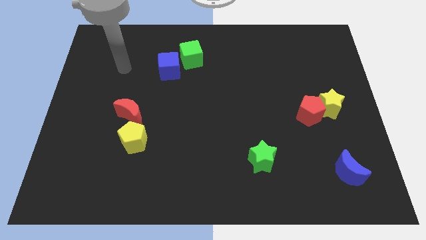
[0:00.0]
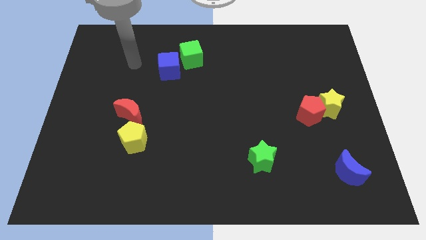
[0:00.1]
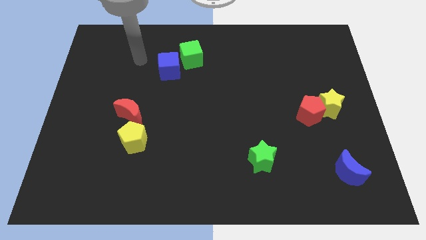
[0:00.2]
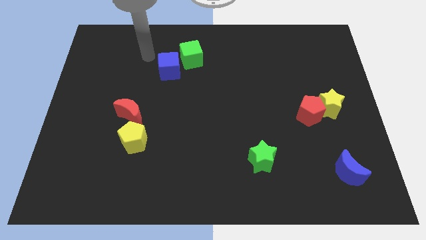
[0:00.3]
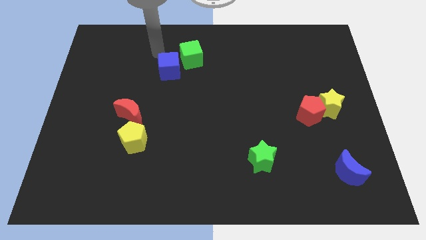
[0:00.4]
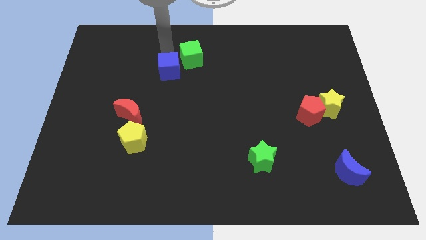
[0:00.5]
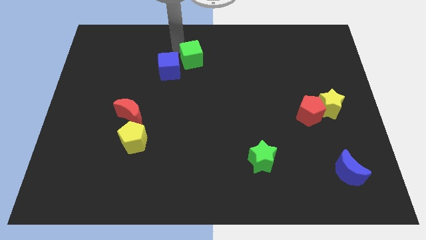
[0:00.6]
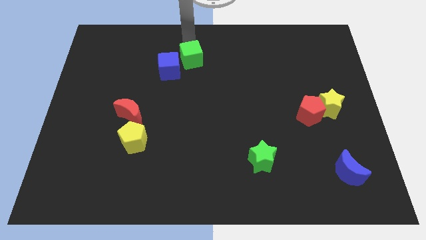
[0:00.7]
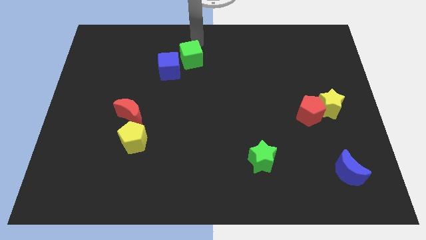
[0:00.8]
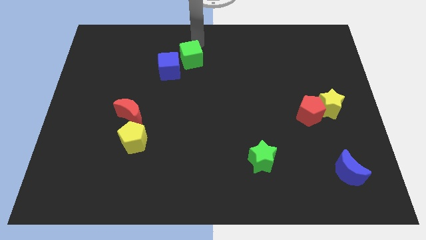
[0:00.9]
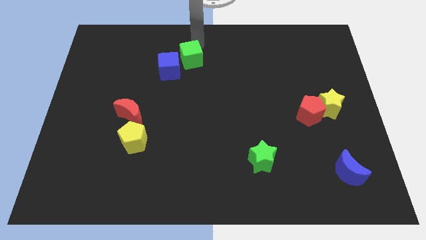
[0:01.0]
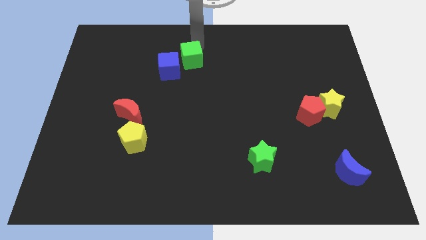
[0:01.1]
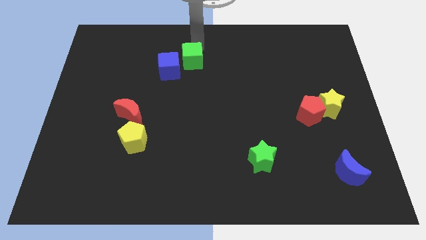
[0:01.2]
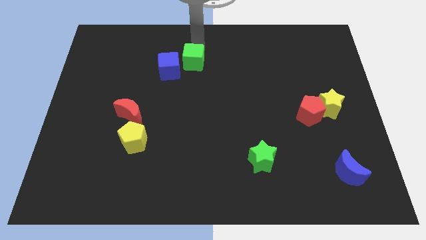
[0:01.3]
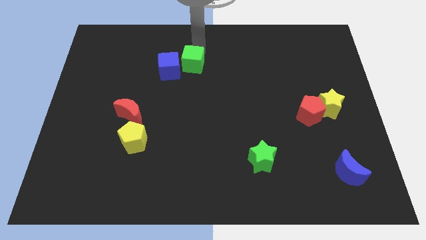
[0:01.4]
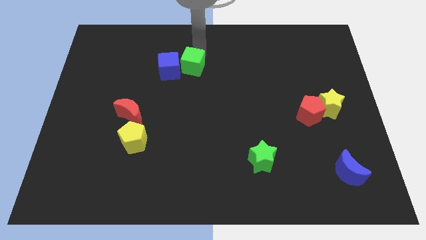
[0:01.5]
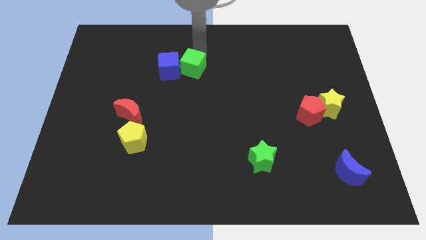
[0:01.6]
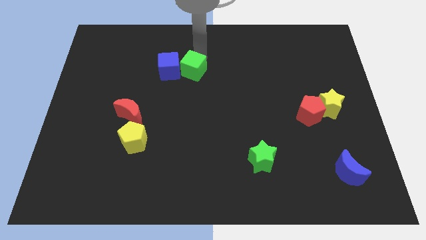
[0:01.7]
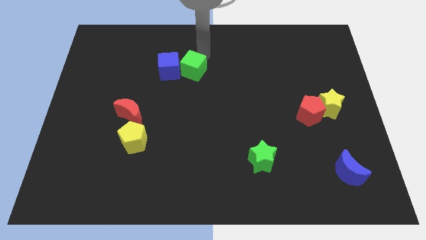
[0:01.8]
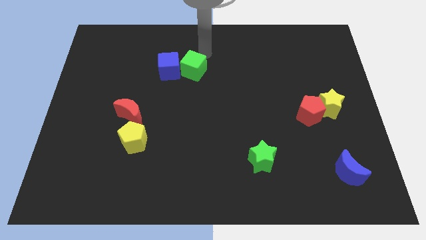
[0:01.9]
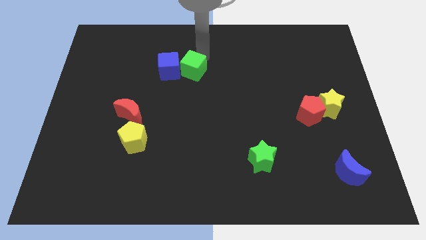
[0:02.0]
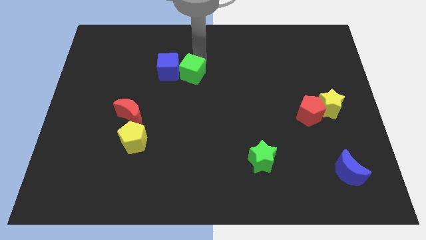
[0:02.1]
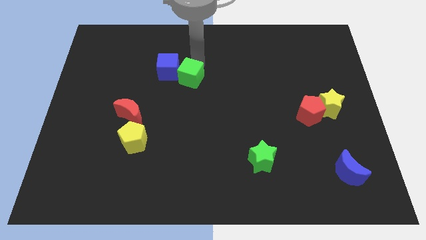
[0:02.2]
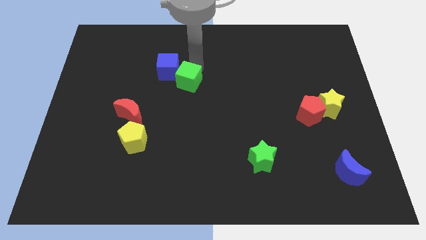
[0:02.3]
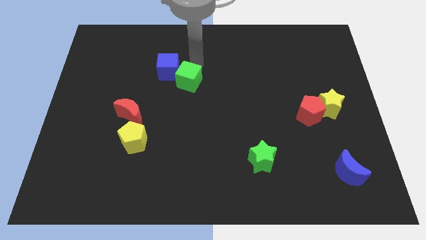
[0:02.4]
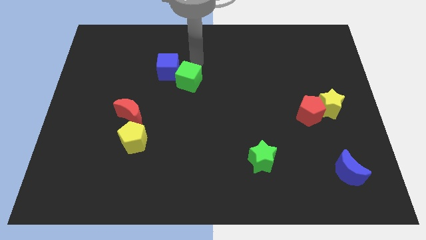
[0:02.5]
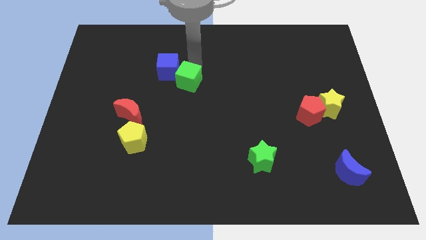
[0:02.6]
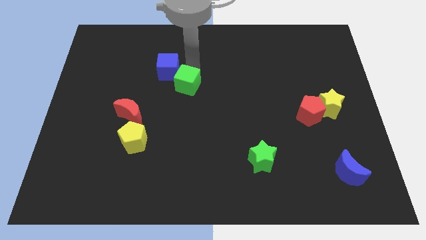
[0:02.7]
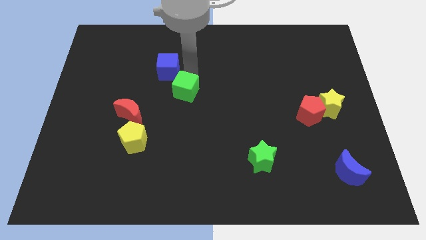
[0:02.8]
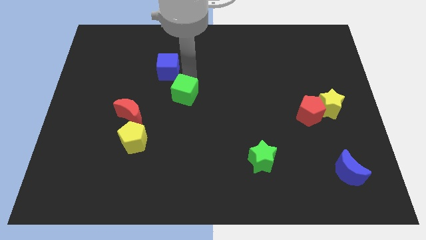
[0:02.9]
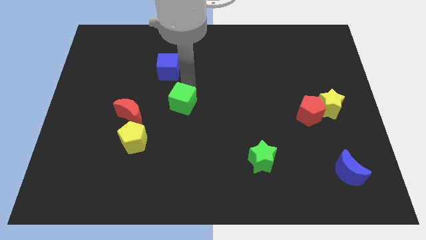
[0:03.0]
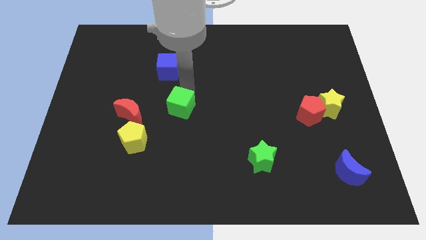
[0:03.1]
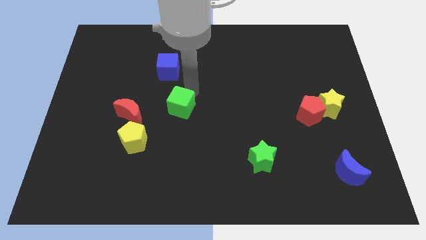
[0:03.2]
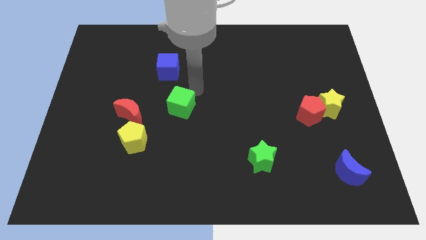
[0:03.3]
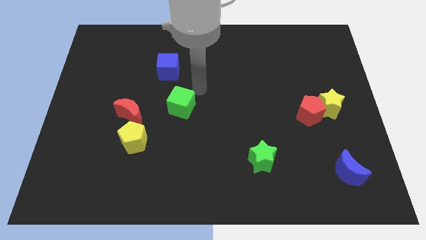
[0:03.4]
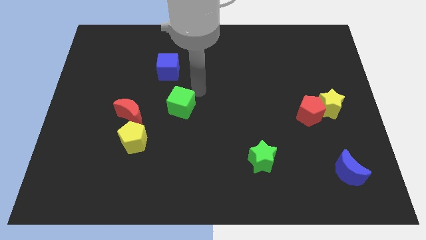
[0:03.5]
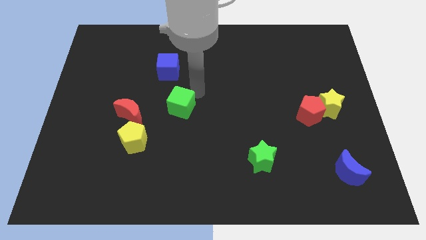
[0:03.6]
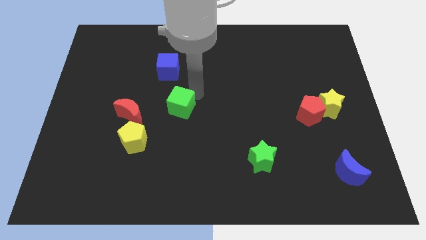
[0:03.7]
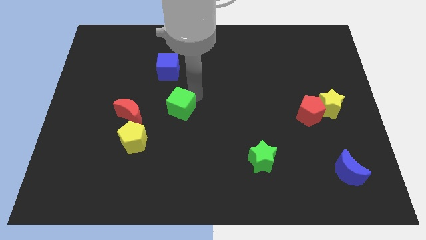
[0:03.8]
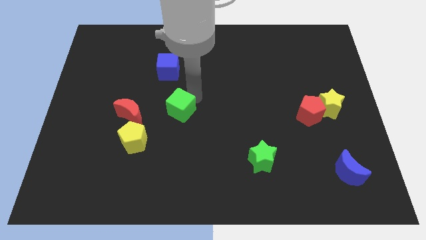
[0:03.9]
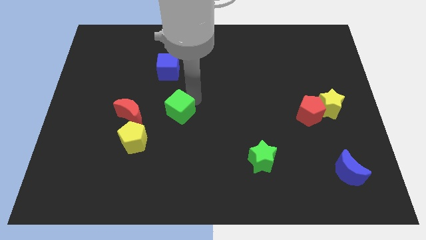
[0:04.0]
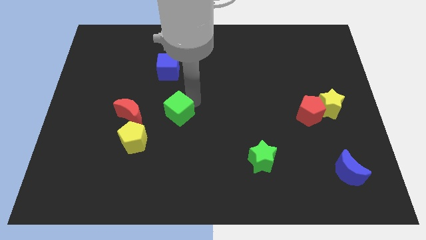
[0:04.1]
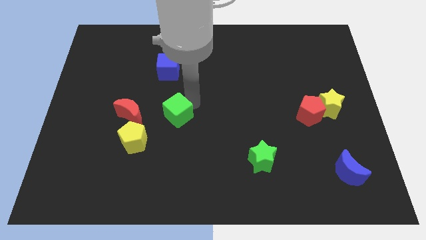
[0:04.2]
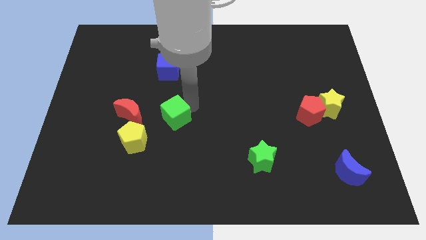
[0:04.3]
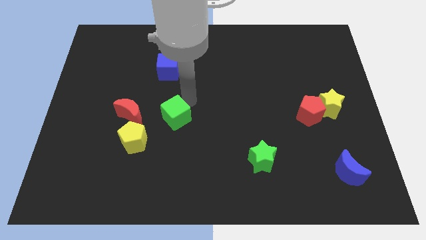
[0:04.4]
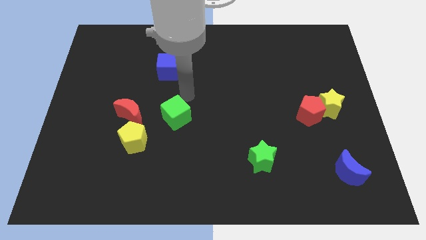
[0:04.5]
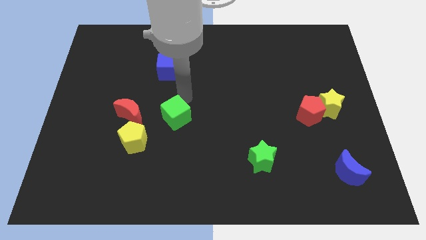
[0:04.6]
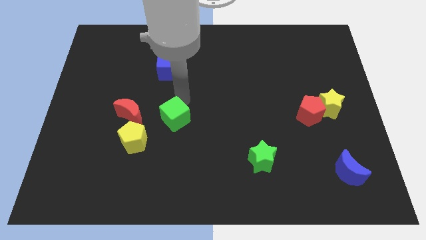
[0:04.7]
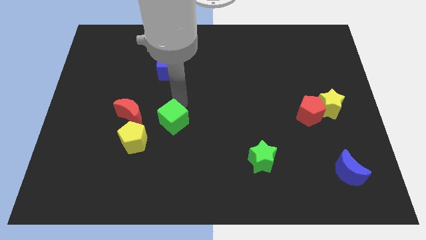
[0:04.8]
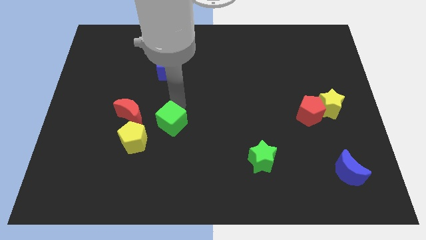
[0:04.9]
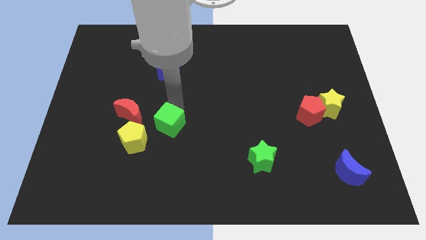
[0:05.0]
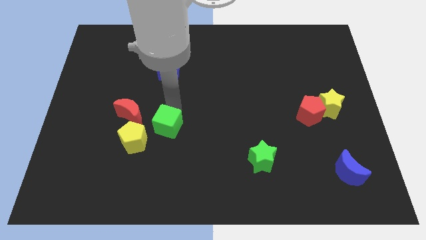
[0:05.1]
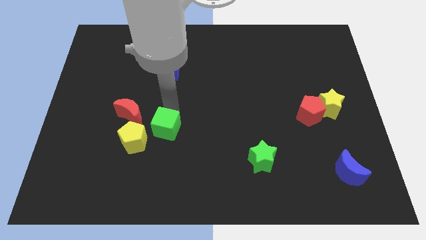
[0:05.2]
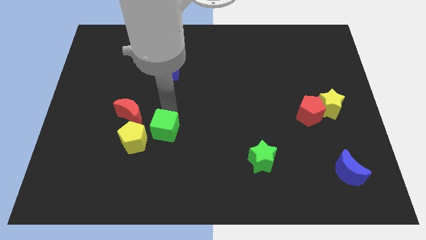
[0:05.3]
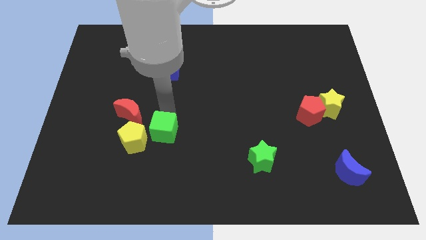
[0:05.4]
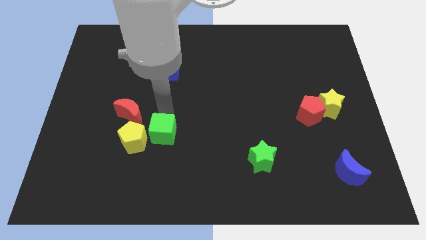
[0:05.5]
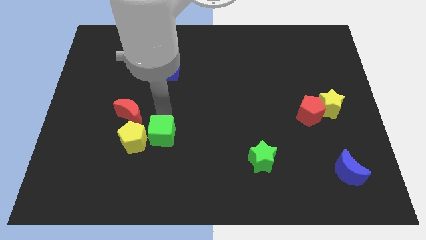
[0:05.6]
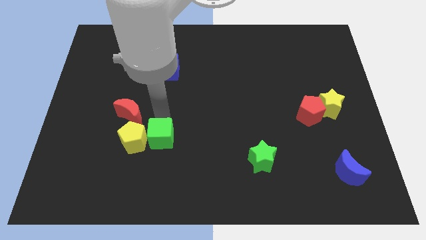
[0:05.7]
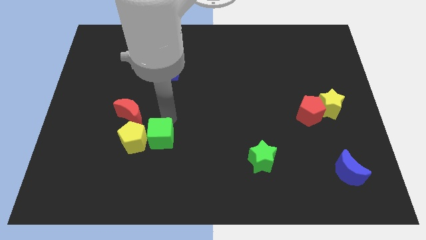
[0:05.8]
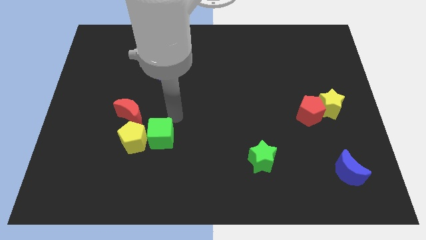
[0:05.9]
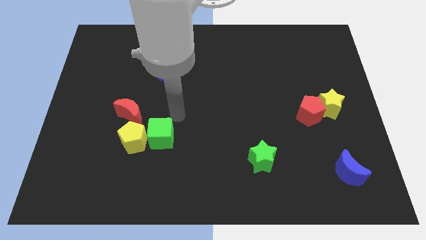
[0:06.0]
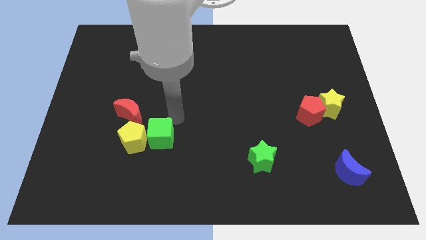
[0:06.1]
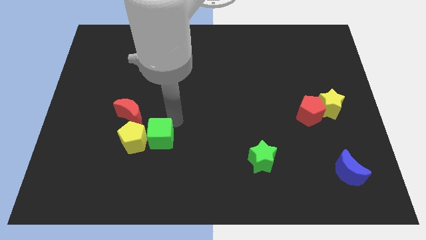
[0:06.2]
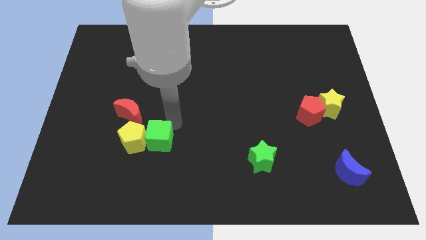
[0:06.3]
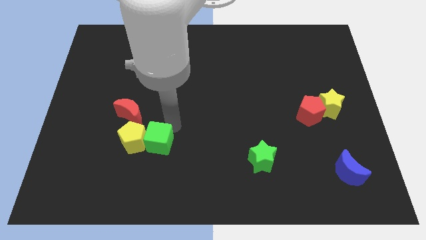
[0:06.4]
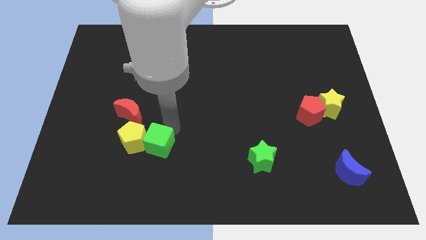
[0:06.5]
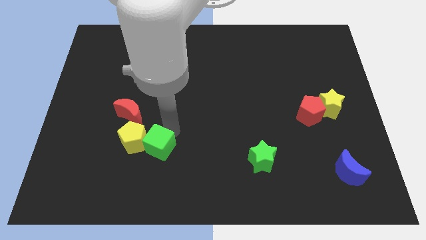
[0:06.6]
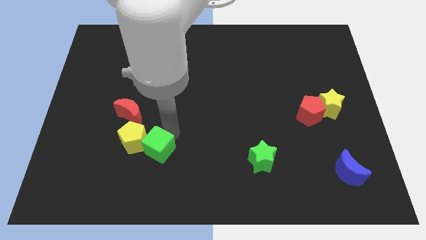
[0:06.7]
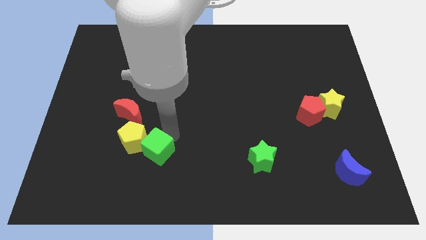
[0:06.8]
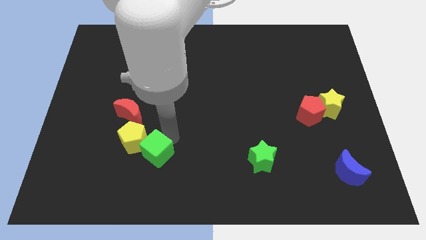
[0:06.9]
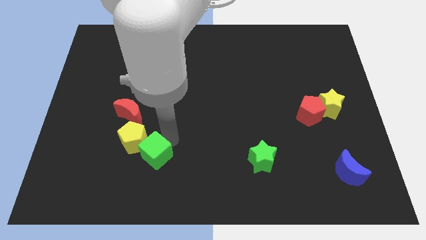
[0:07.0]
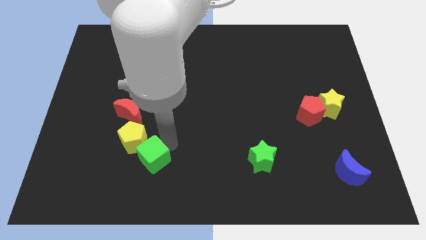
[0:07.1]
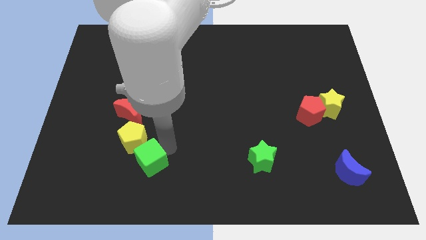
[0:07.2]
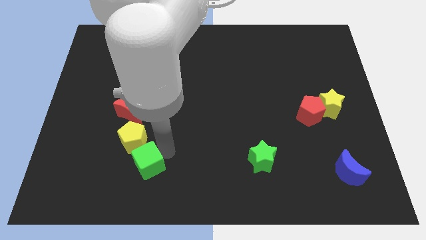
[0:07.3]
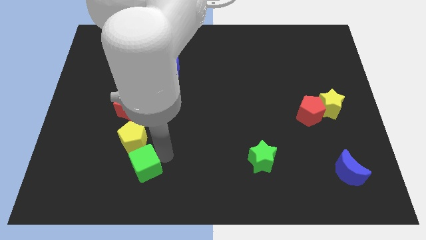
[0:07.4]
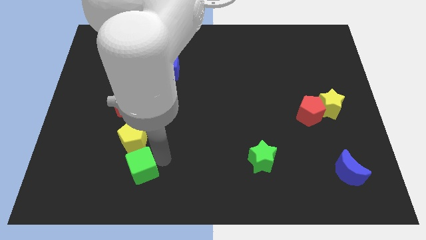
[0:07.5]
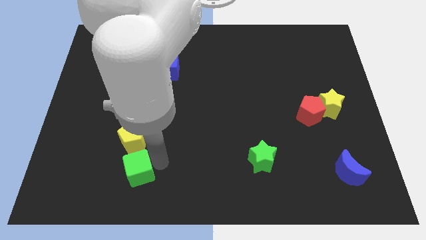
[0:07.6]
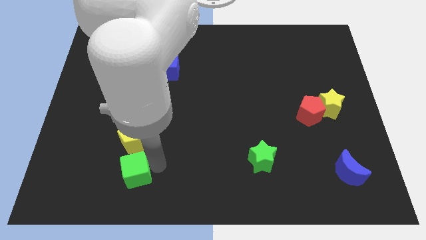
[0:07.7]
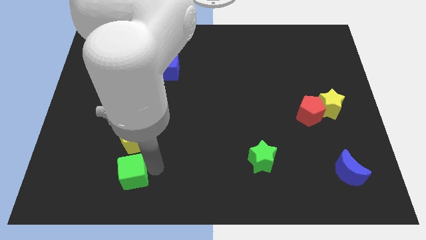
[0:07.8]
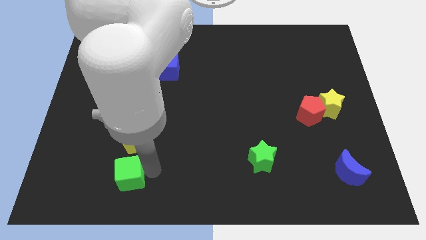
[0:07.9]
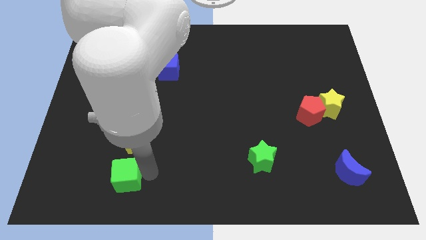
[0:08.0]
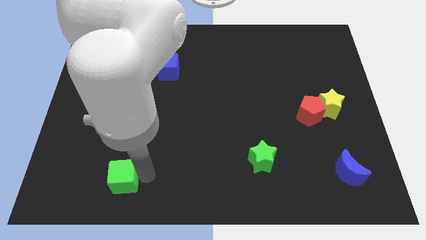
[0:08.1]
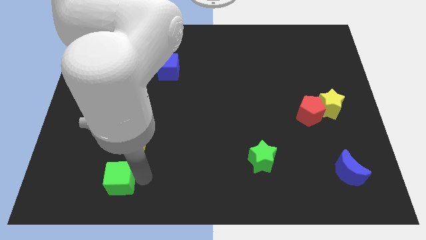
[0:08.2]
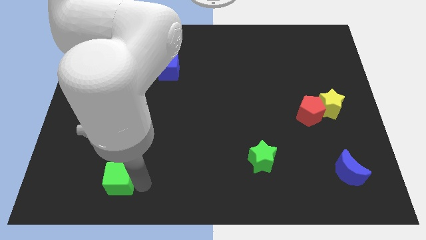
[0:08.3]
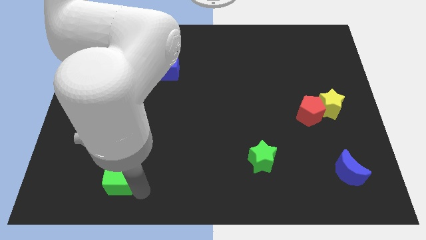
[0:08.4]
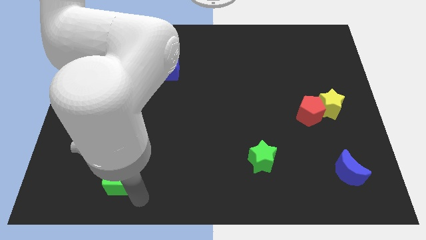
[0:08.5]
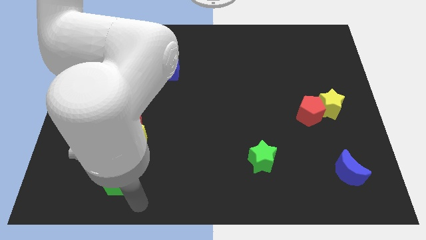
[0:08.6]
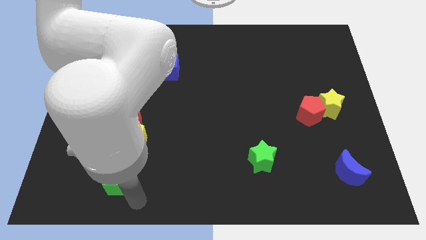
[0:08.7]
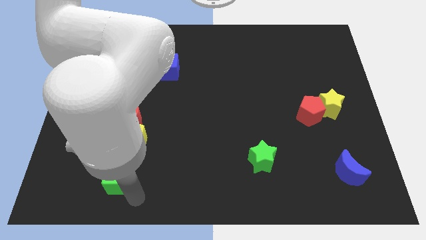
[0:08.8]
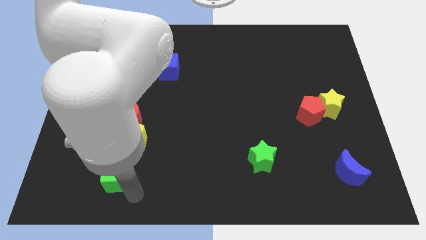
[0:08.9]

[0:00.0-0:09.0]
push the green cube to the bottom left of the yellow pentagon
